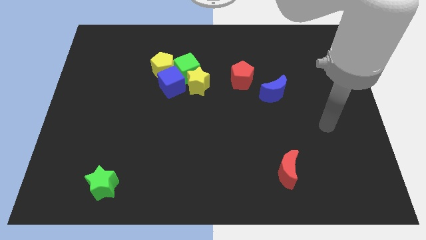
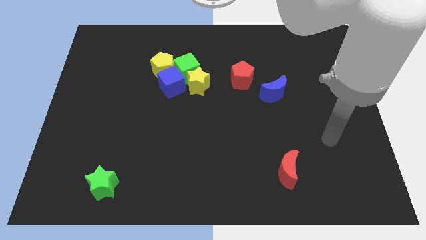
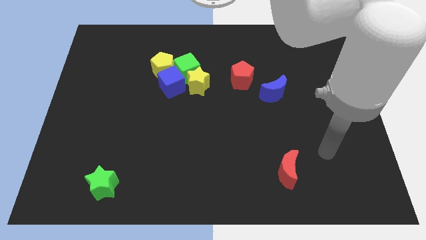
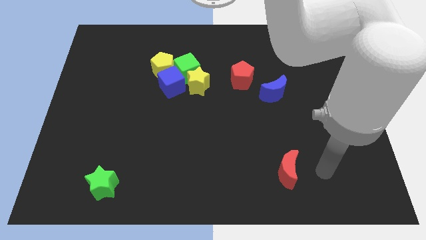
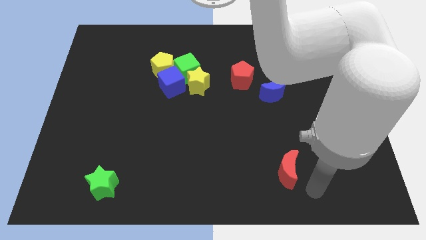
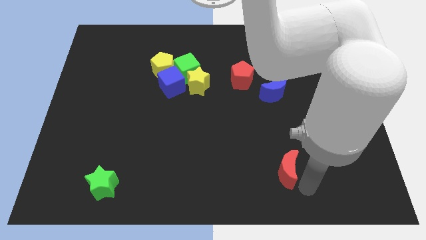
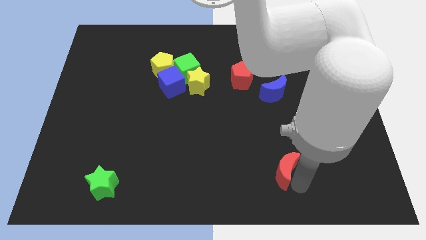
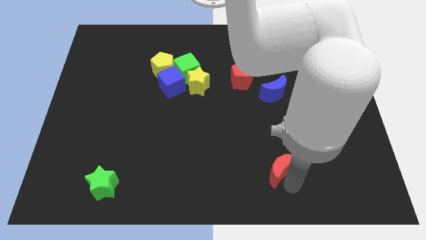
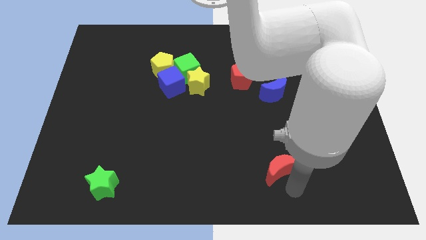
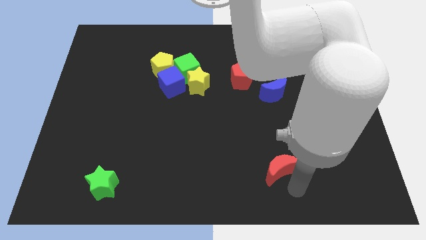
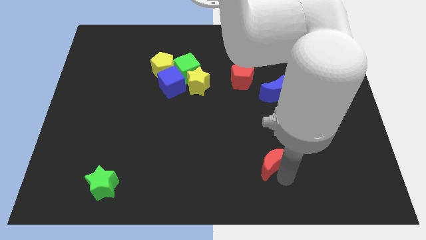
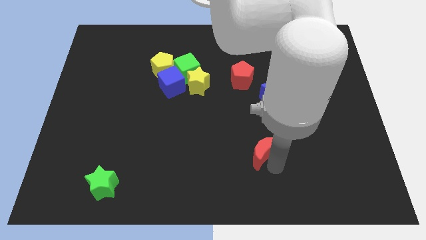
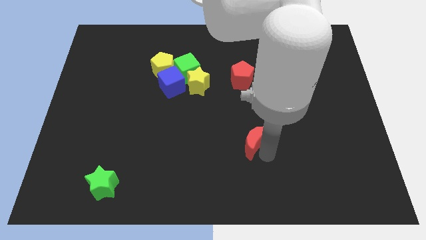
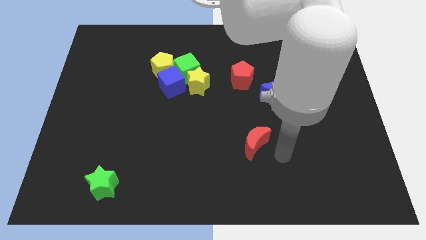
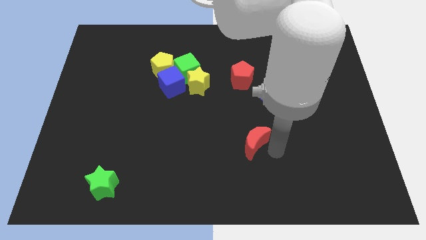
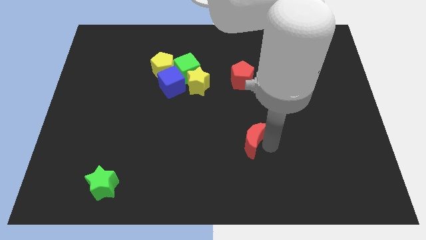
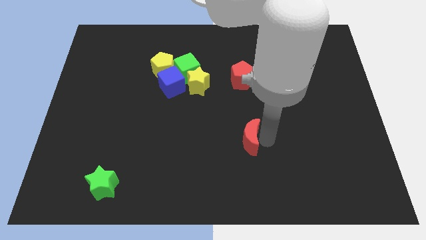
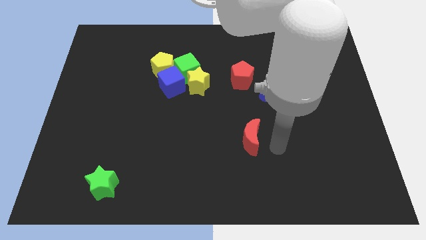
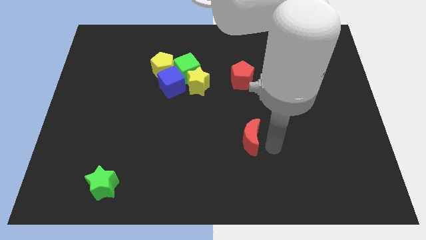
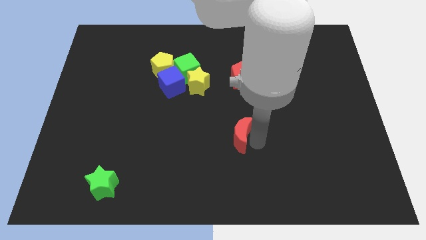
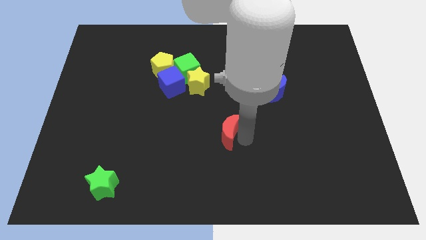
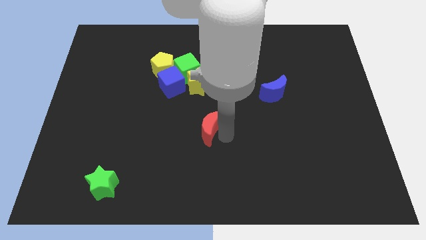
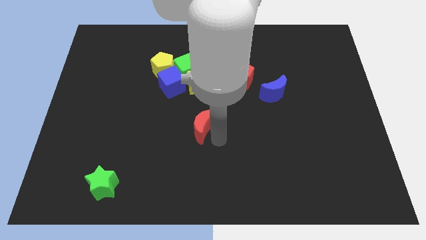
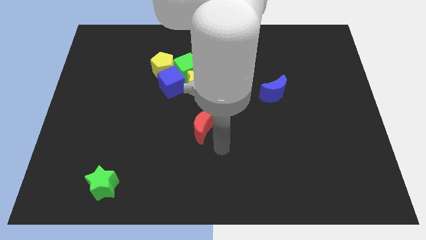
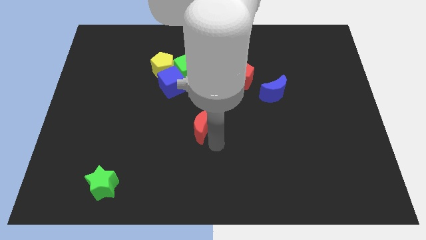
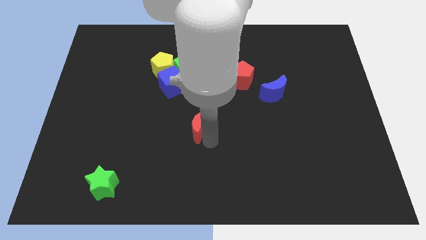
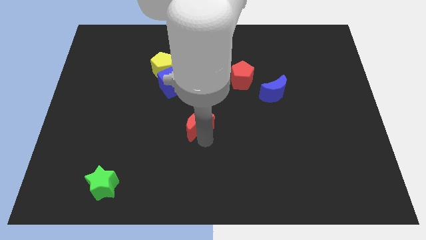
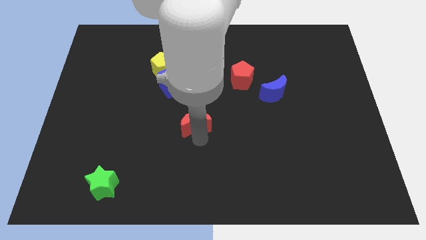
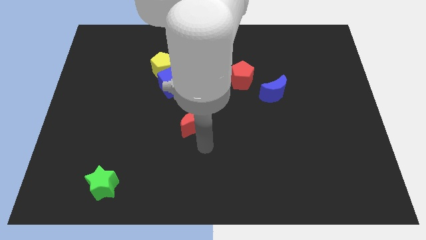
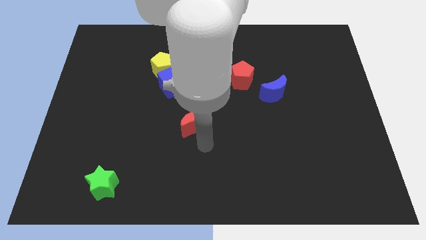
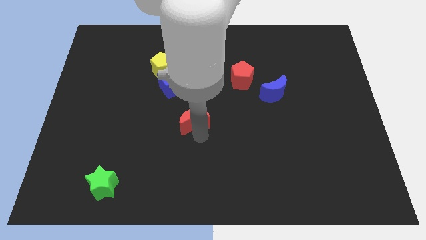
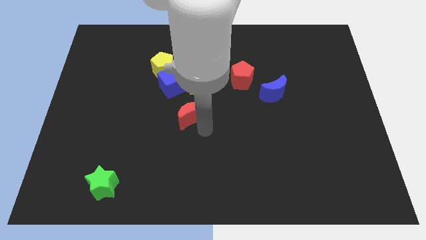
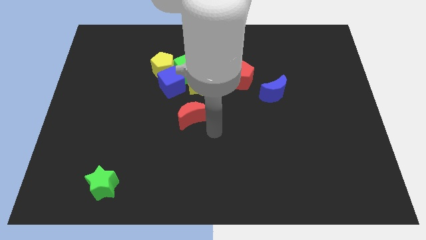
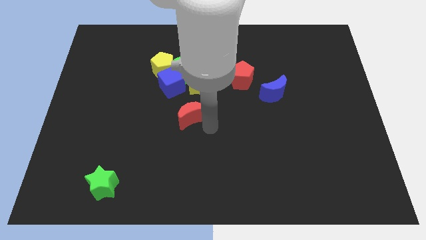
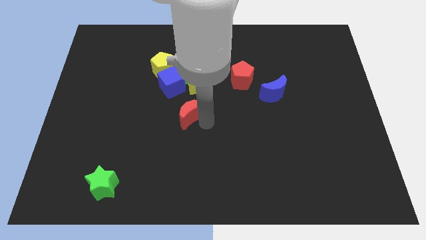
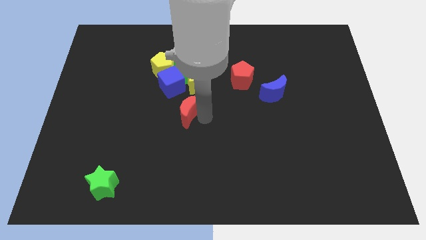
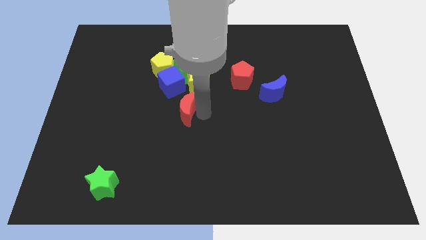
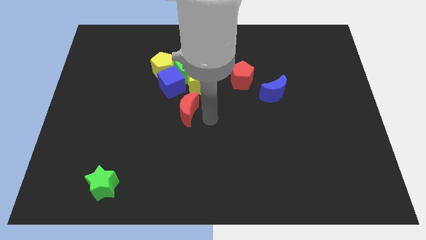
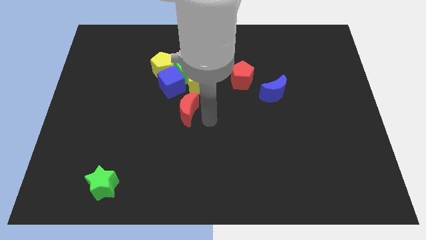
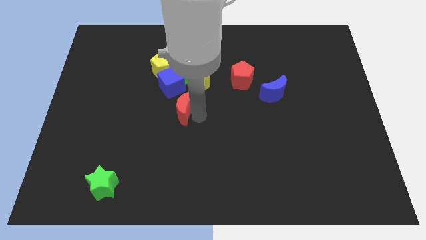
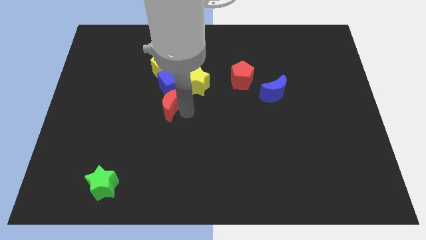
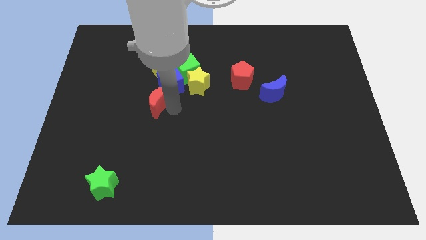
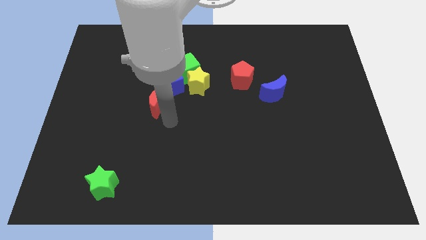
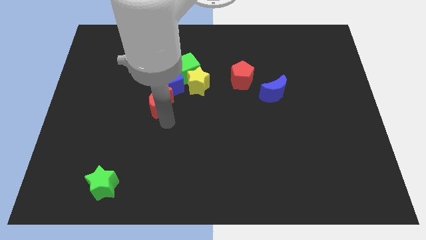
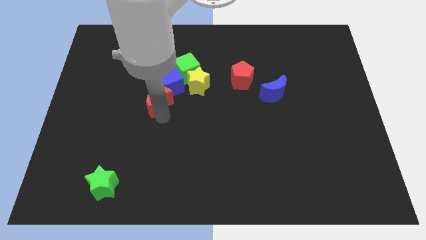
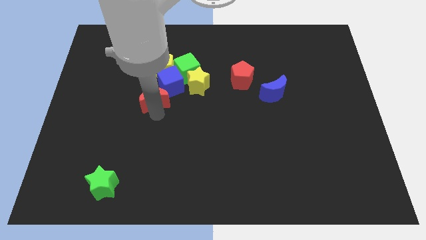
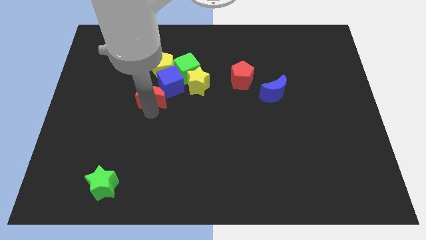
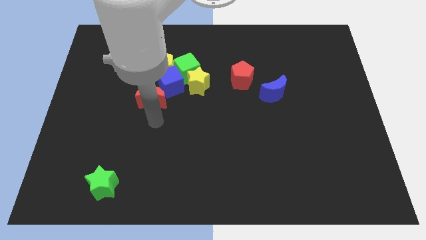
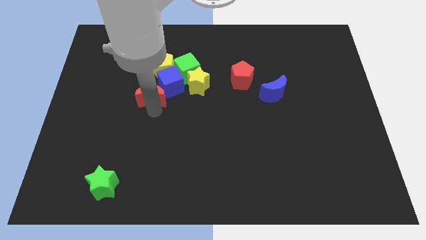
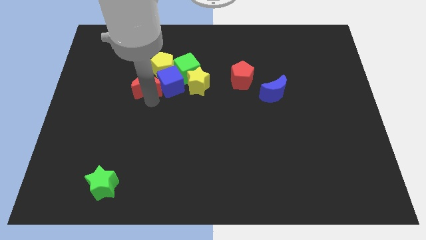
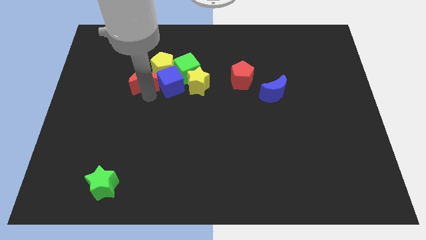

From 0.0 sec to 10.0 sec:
move the red moon to the left of the green cube

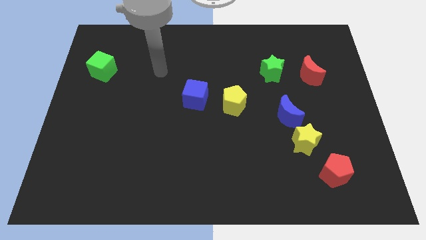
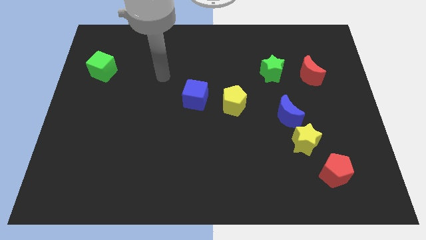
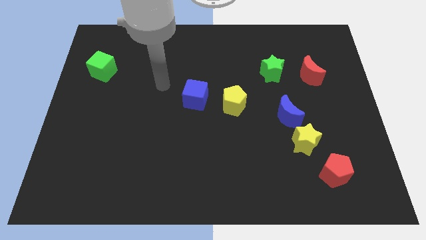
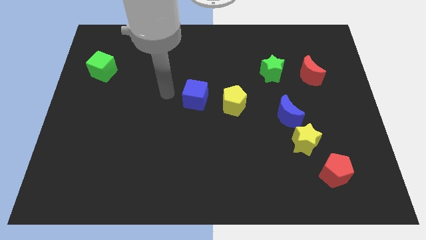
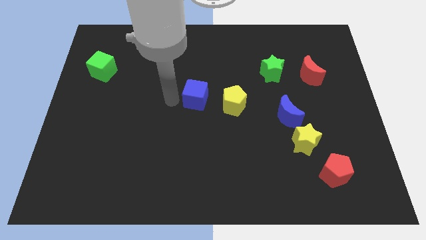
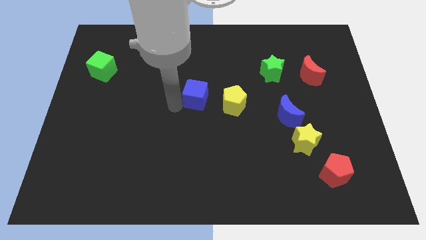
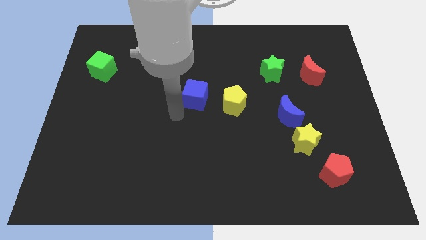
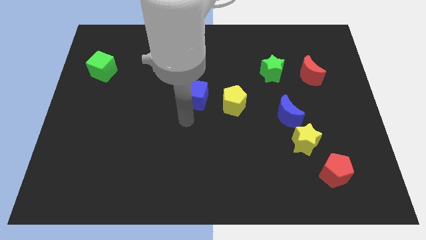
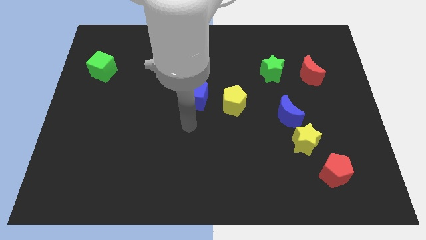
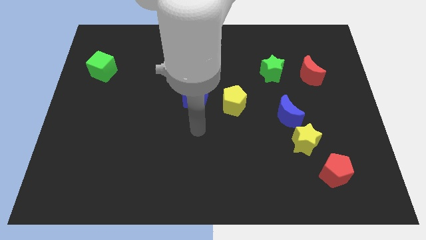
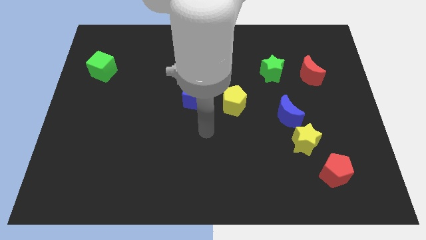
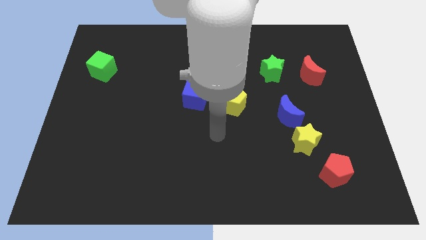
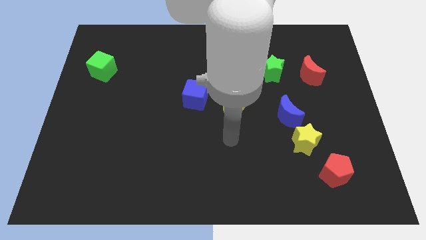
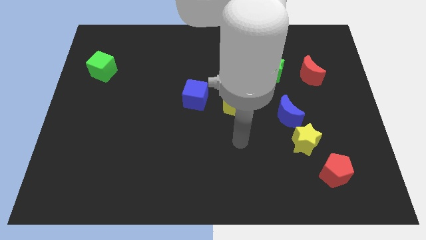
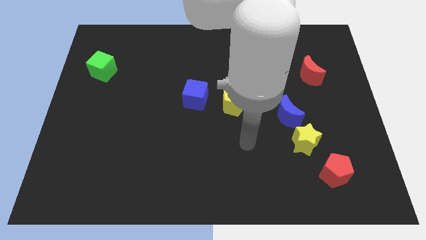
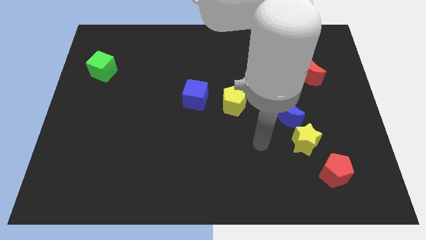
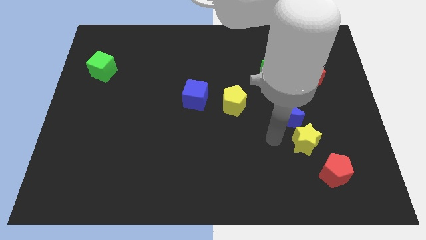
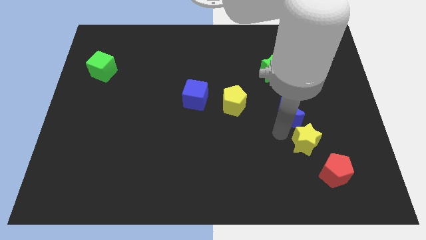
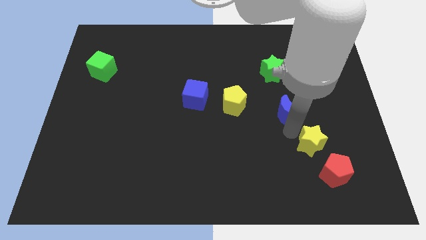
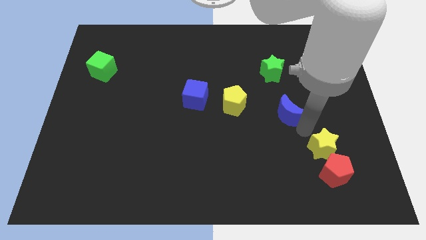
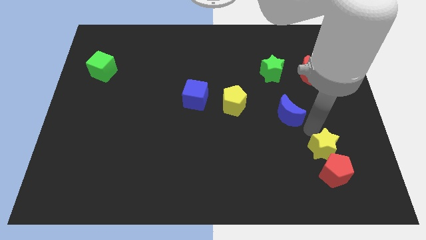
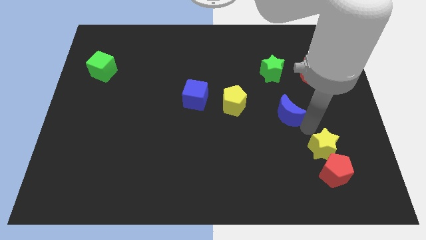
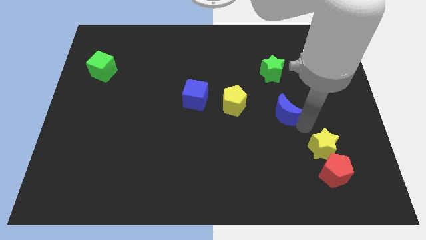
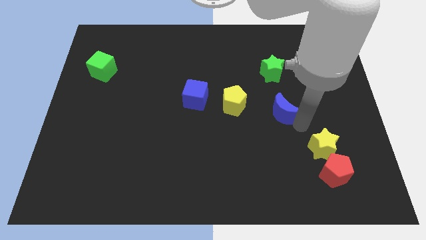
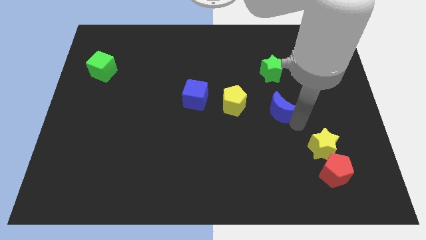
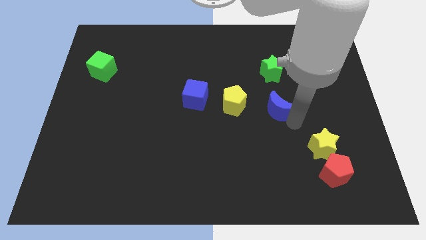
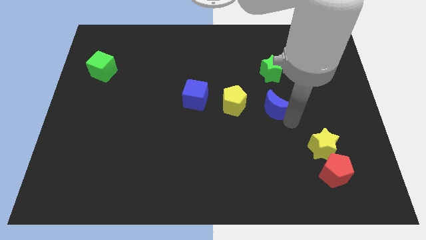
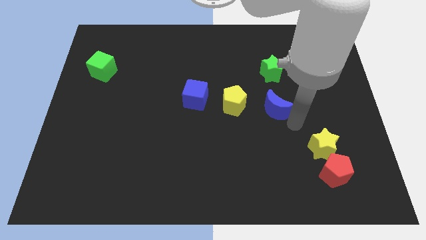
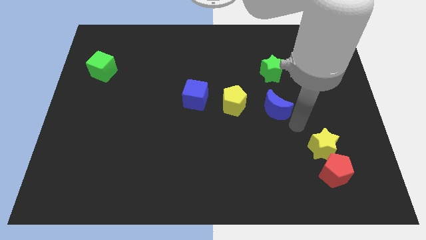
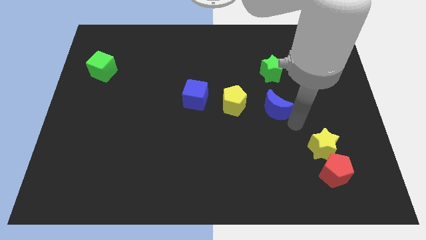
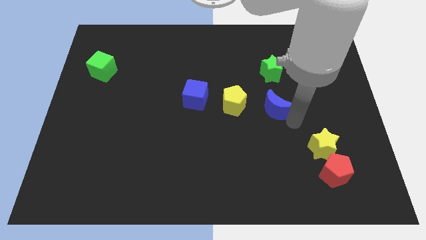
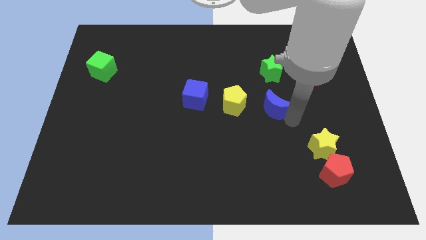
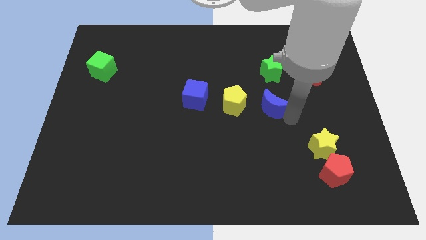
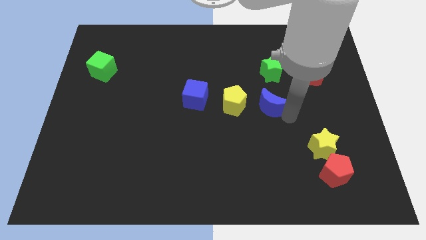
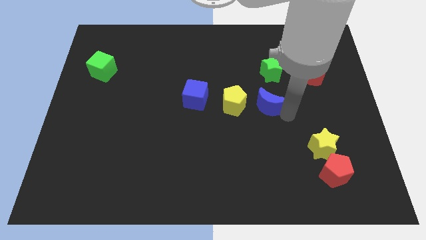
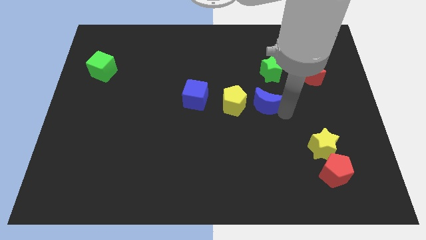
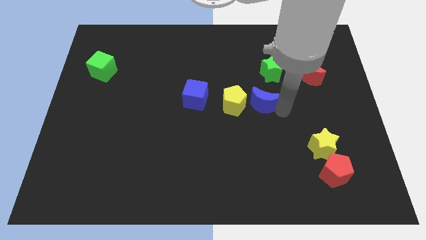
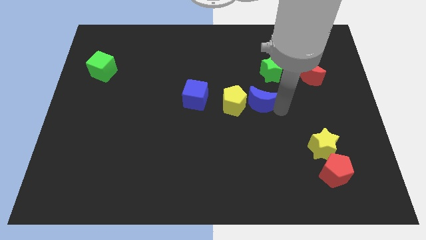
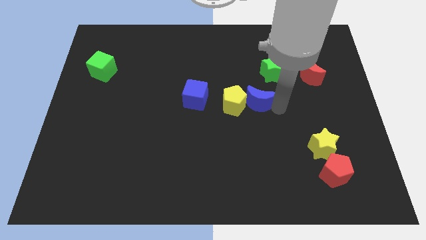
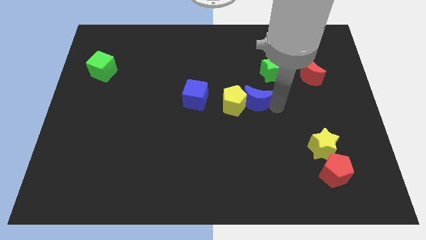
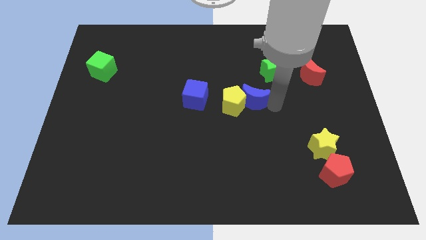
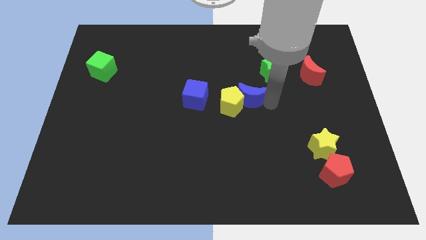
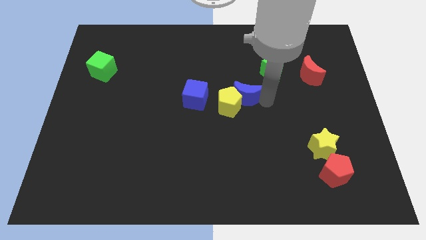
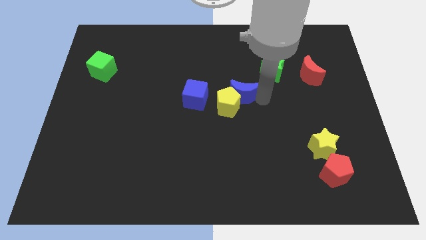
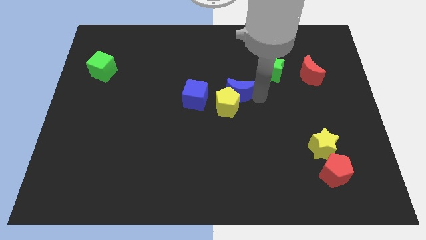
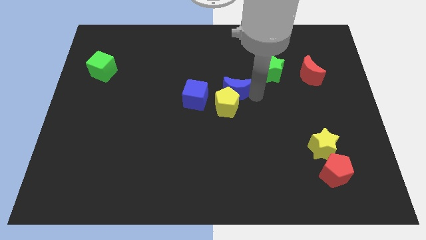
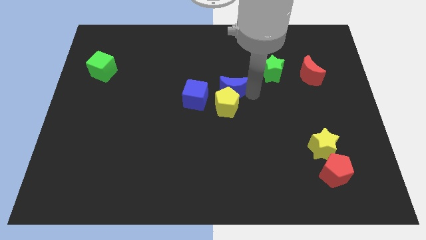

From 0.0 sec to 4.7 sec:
move the blue moon diagonally up and to the left of the yellow pentagon
